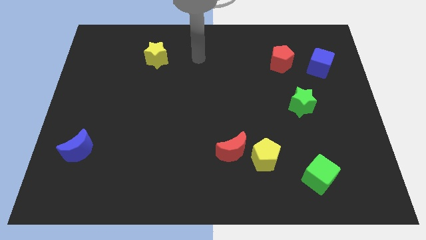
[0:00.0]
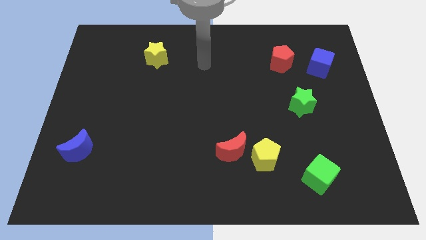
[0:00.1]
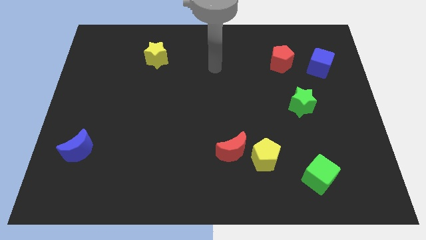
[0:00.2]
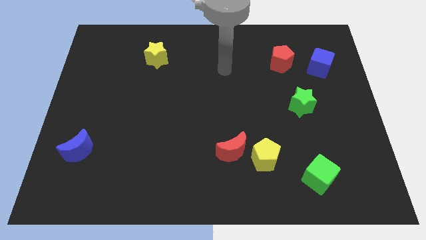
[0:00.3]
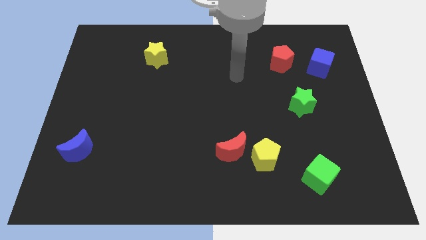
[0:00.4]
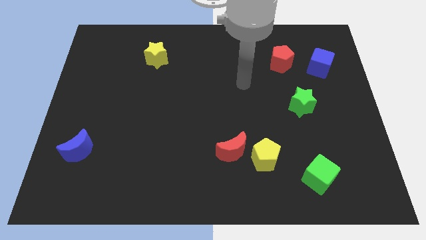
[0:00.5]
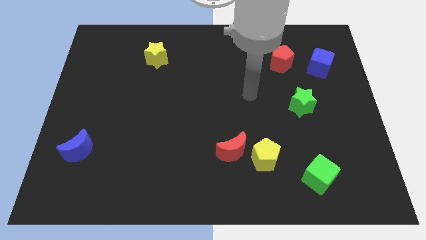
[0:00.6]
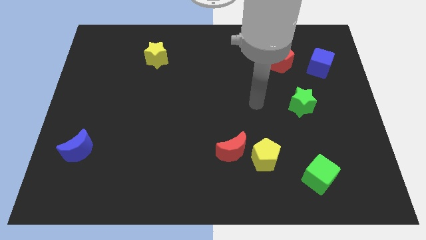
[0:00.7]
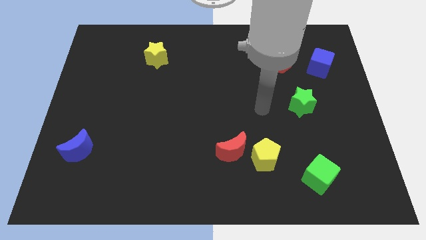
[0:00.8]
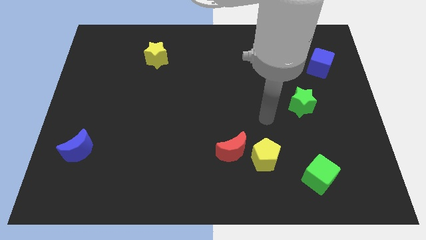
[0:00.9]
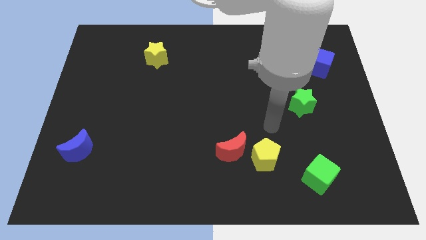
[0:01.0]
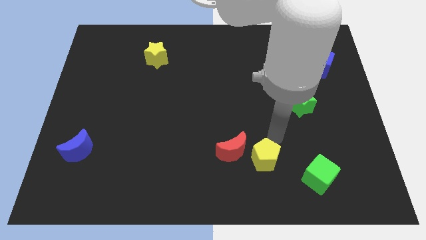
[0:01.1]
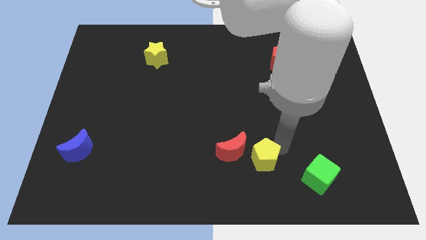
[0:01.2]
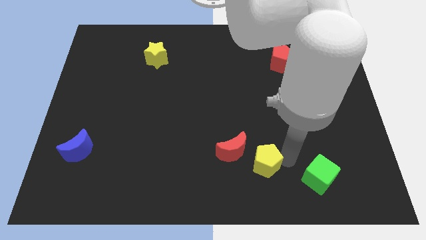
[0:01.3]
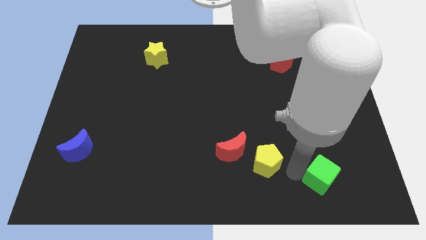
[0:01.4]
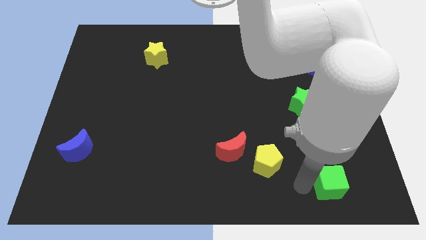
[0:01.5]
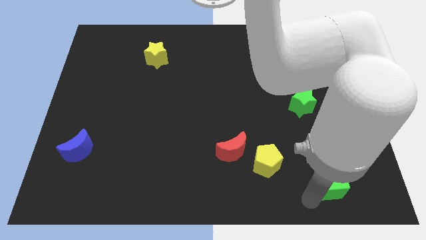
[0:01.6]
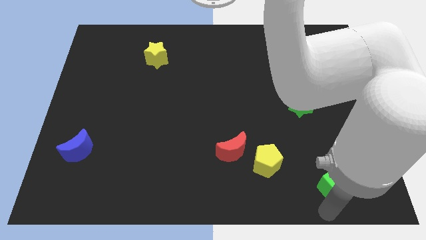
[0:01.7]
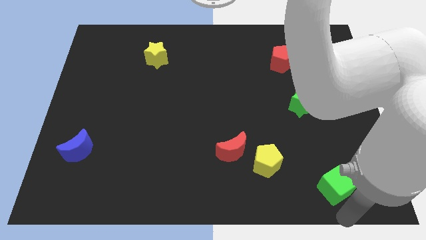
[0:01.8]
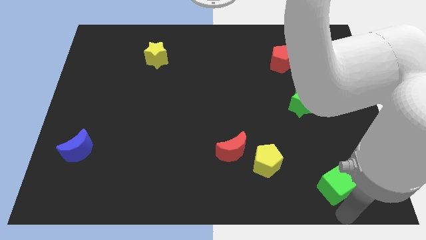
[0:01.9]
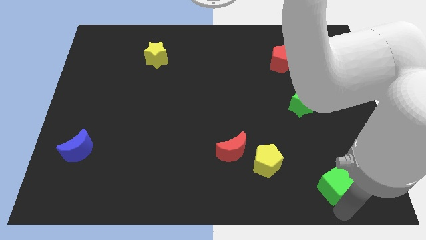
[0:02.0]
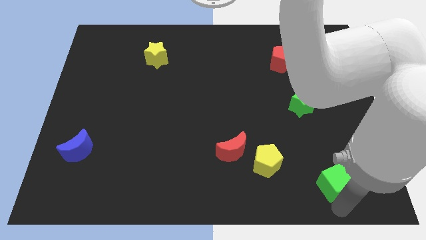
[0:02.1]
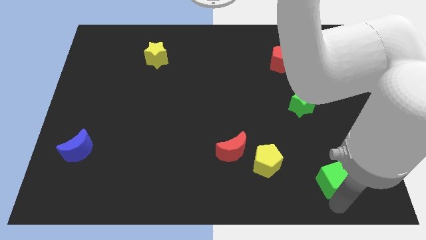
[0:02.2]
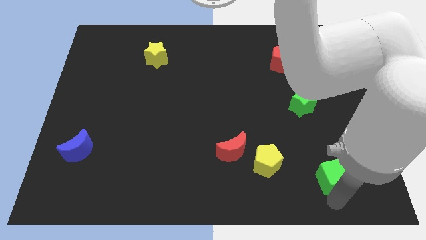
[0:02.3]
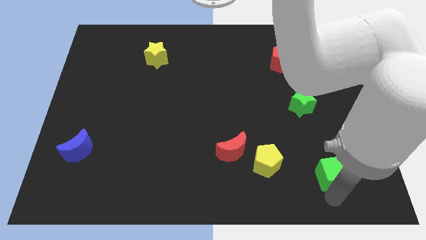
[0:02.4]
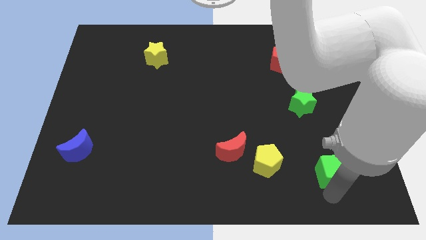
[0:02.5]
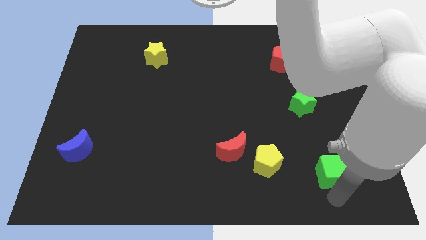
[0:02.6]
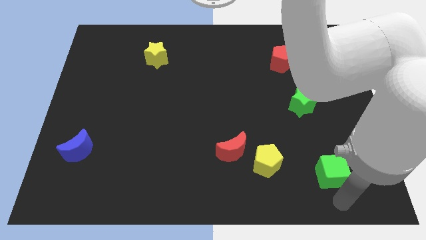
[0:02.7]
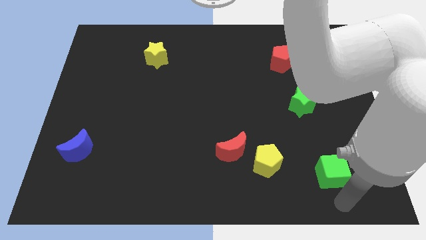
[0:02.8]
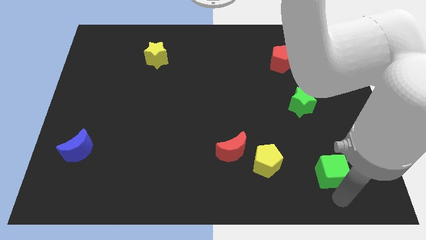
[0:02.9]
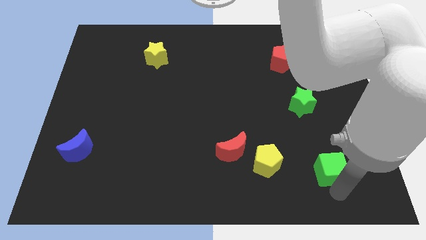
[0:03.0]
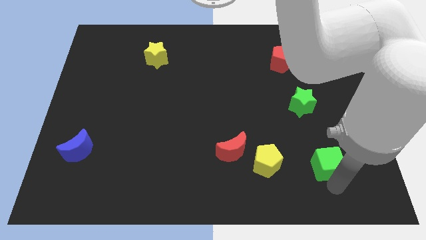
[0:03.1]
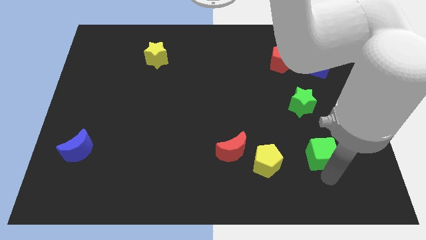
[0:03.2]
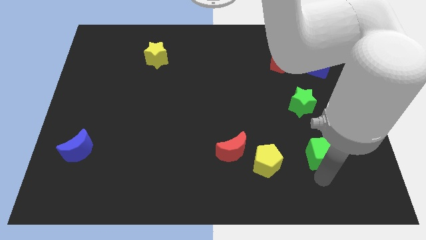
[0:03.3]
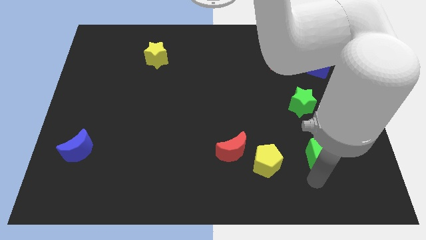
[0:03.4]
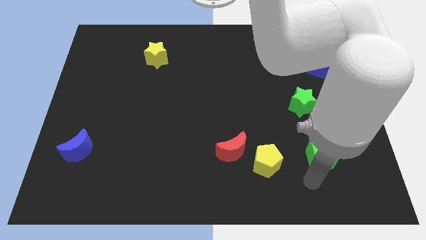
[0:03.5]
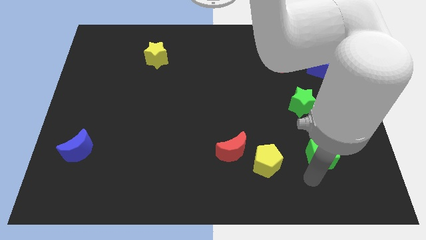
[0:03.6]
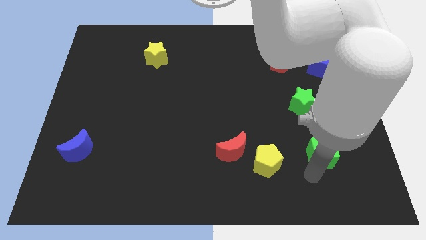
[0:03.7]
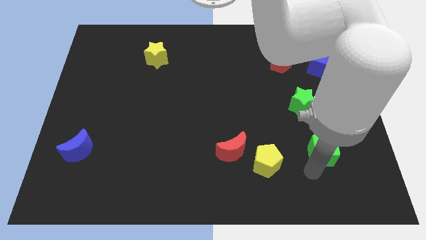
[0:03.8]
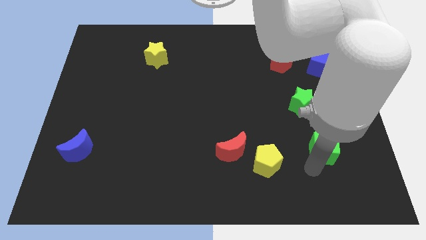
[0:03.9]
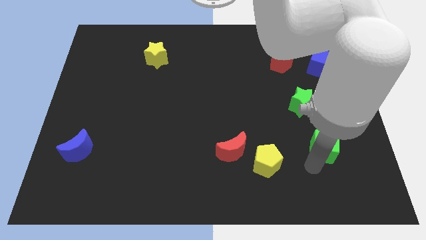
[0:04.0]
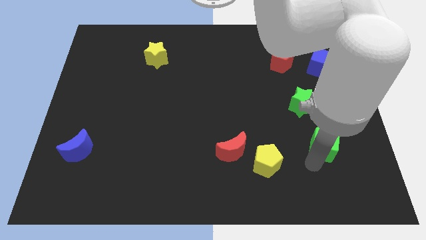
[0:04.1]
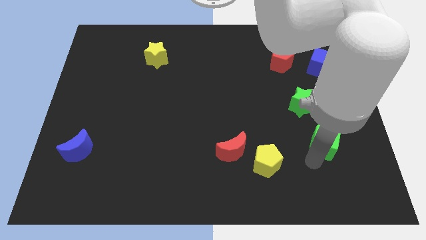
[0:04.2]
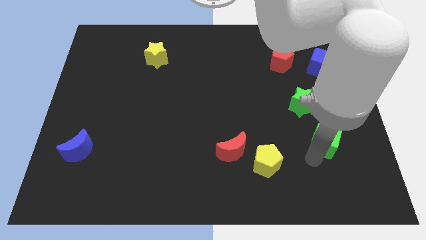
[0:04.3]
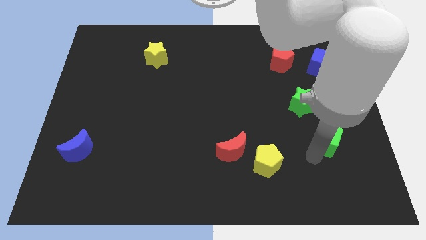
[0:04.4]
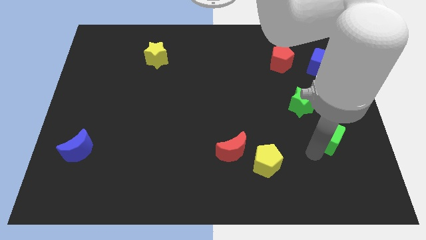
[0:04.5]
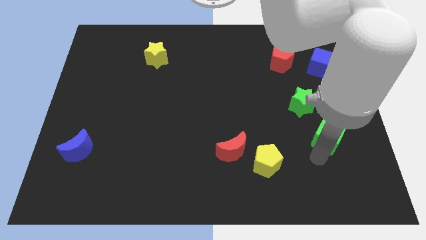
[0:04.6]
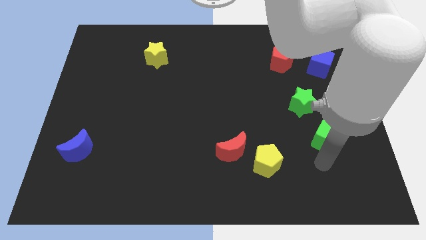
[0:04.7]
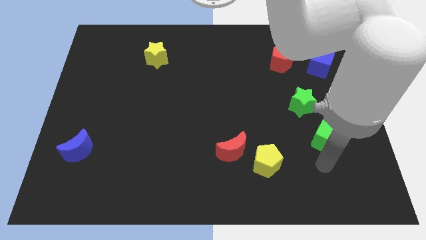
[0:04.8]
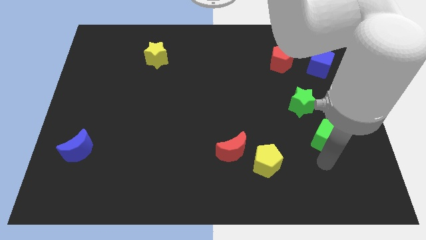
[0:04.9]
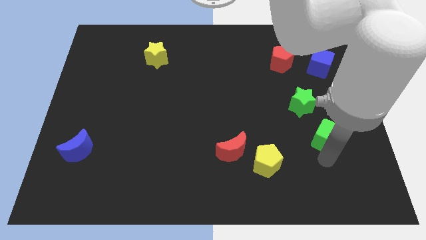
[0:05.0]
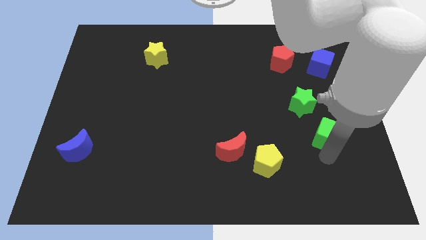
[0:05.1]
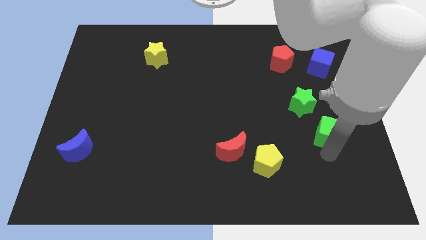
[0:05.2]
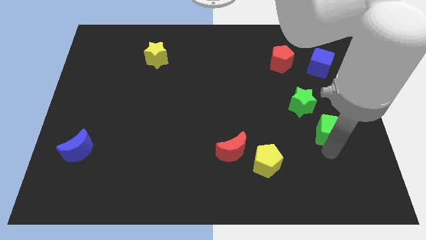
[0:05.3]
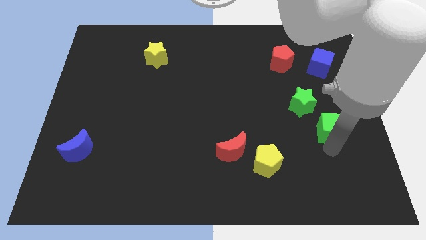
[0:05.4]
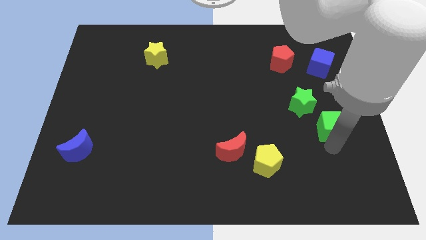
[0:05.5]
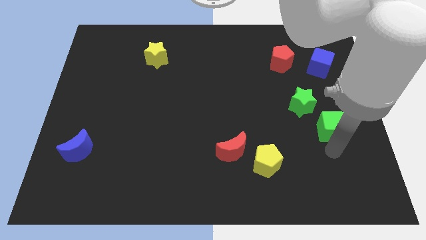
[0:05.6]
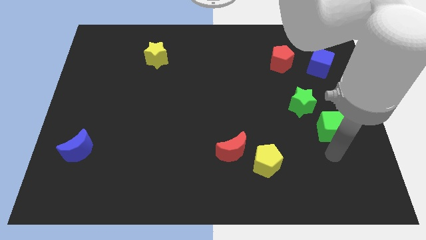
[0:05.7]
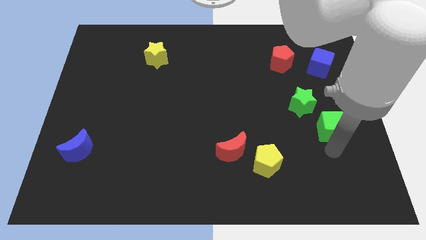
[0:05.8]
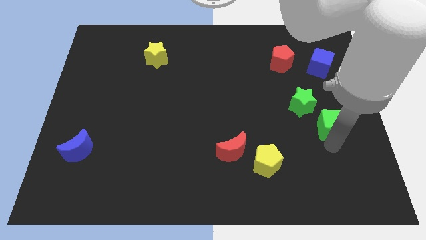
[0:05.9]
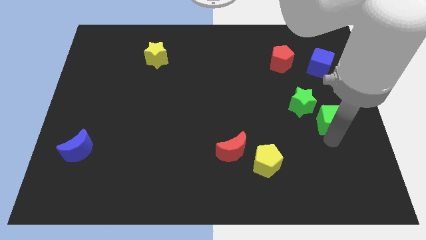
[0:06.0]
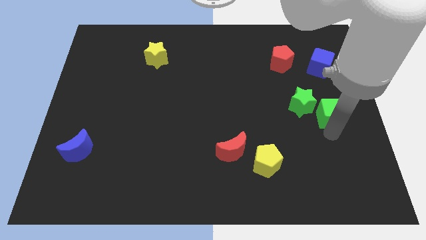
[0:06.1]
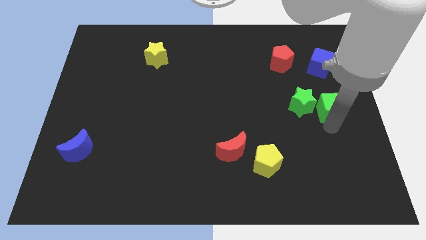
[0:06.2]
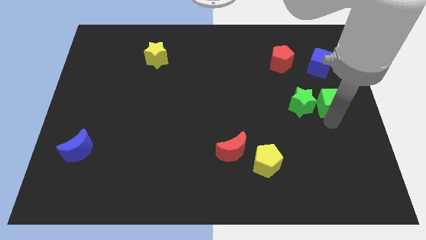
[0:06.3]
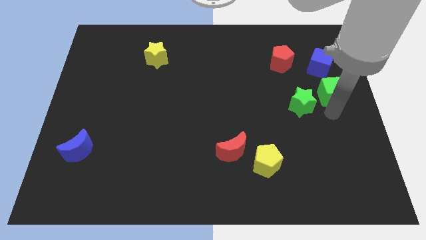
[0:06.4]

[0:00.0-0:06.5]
move the green cube upwards

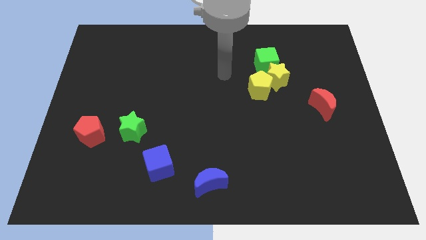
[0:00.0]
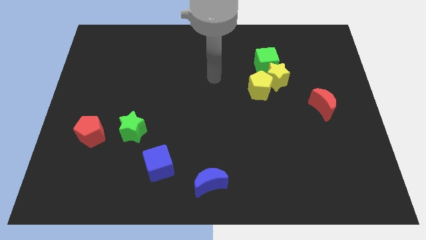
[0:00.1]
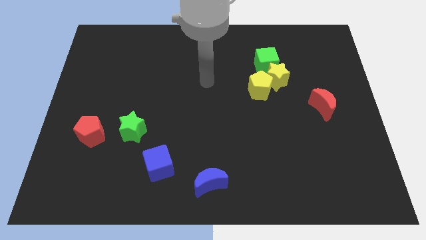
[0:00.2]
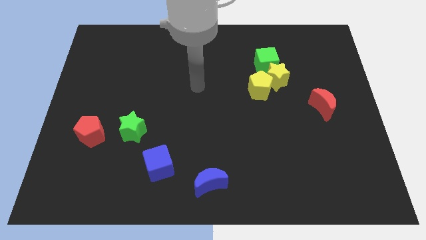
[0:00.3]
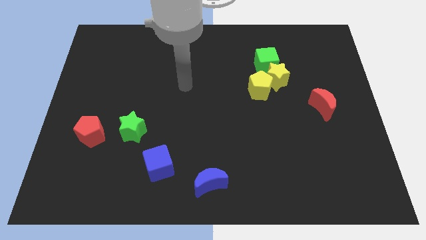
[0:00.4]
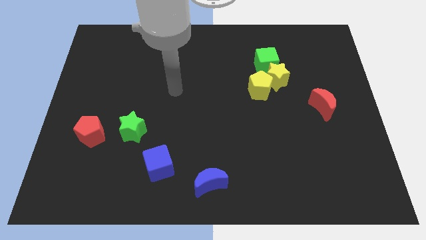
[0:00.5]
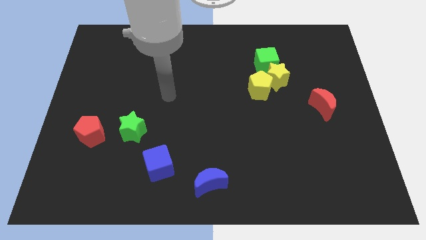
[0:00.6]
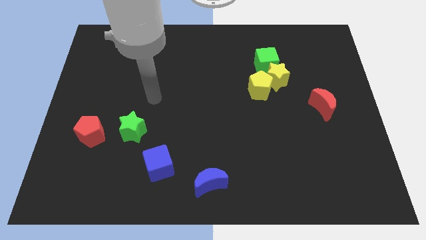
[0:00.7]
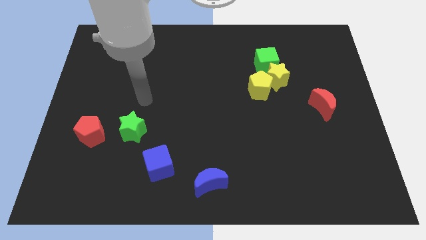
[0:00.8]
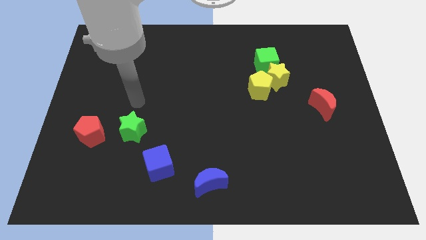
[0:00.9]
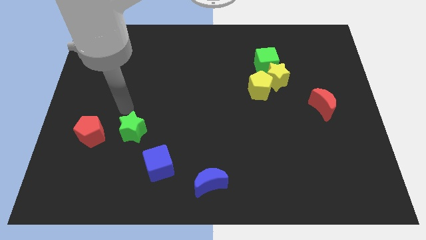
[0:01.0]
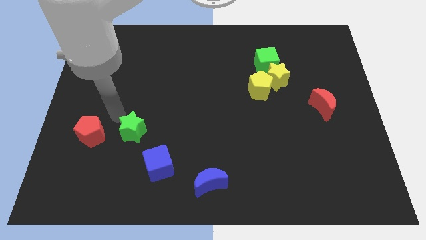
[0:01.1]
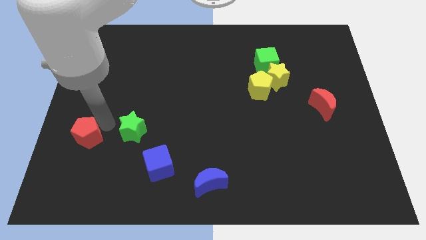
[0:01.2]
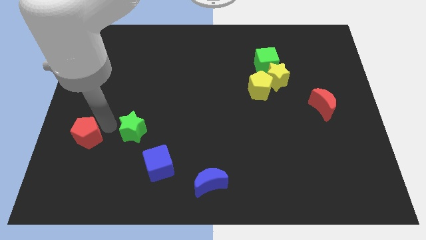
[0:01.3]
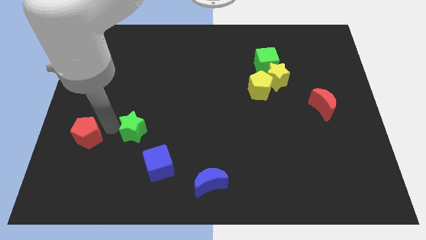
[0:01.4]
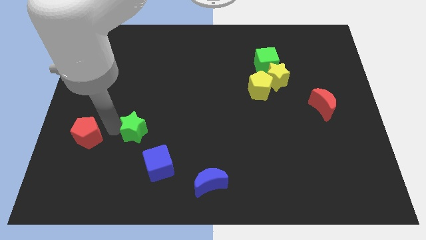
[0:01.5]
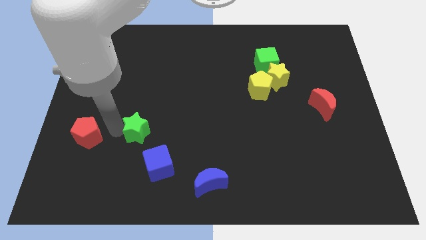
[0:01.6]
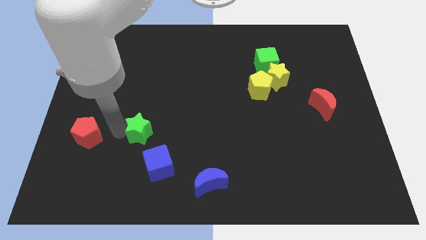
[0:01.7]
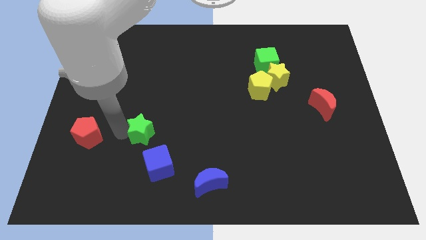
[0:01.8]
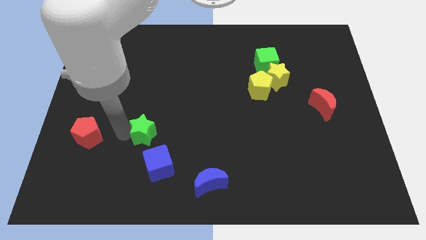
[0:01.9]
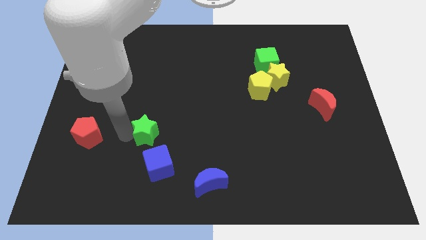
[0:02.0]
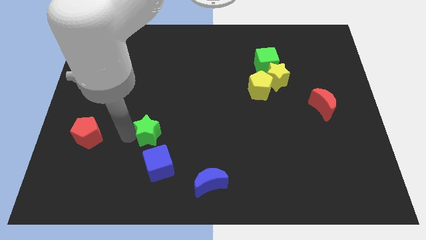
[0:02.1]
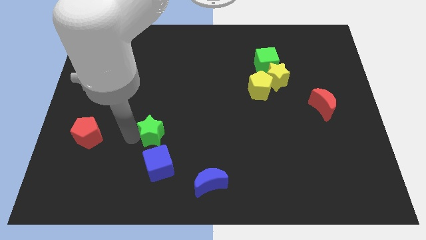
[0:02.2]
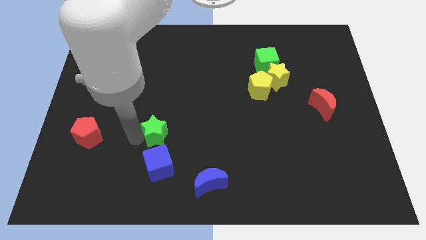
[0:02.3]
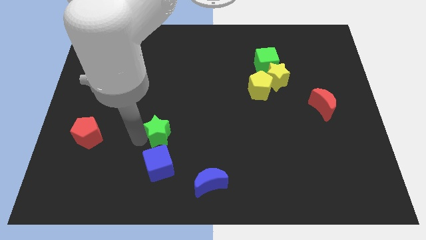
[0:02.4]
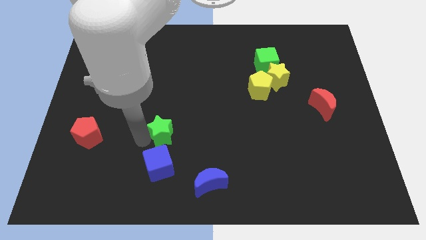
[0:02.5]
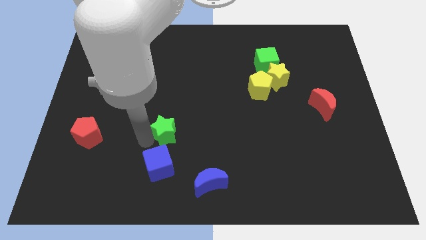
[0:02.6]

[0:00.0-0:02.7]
push the green star a little to the right
